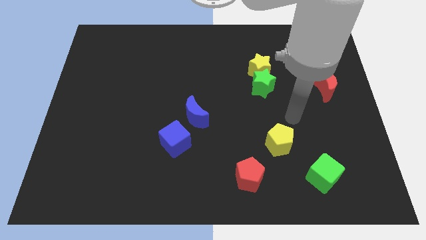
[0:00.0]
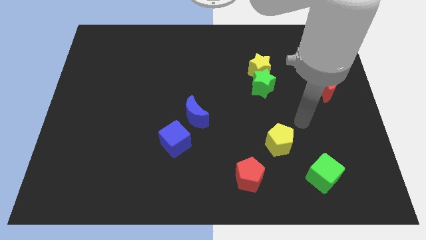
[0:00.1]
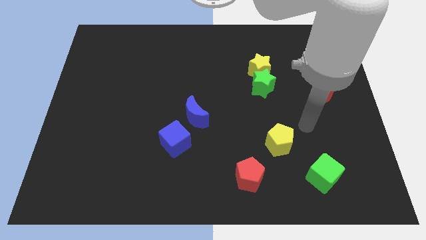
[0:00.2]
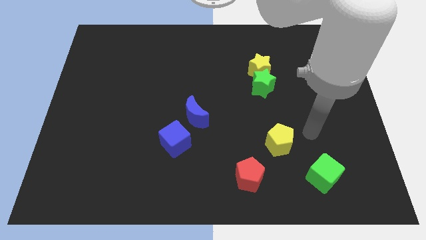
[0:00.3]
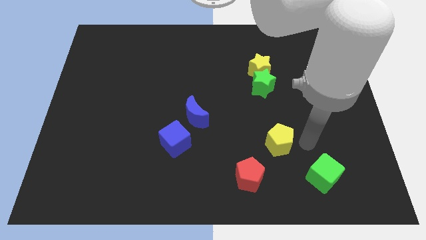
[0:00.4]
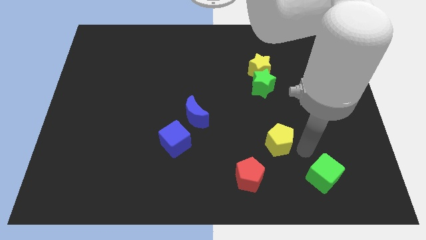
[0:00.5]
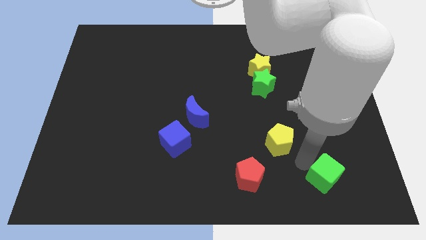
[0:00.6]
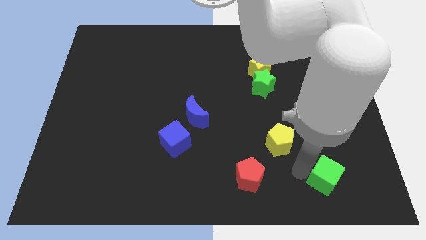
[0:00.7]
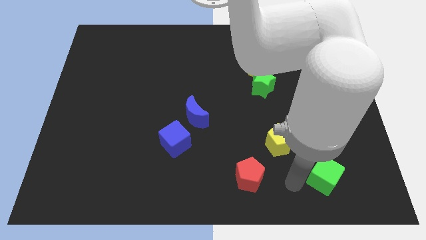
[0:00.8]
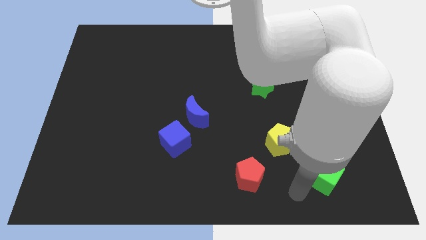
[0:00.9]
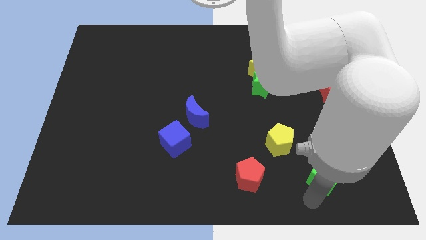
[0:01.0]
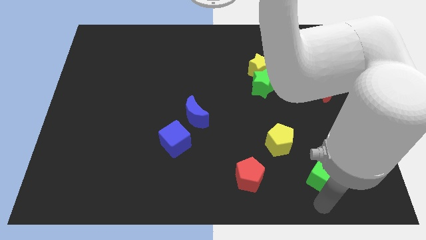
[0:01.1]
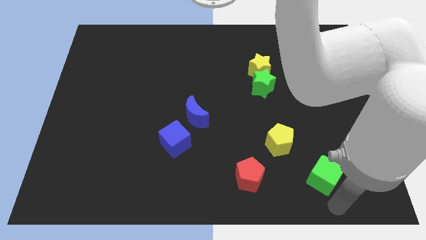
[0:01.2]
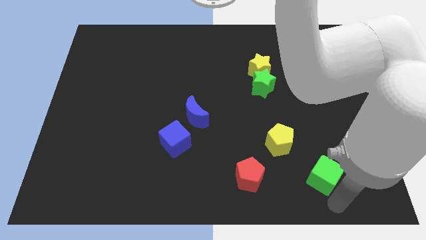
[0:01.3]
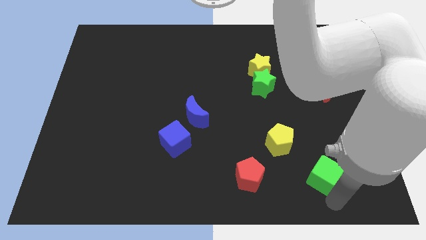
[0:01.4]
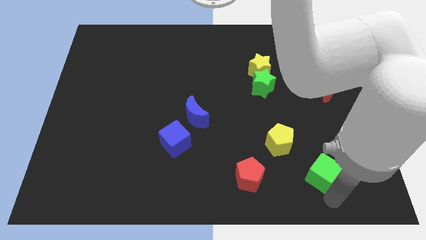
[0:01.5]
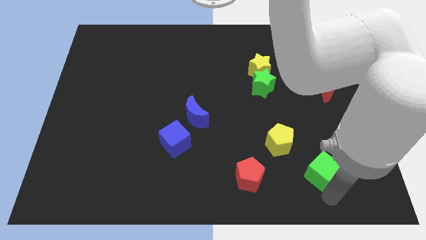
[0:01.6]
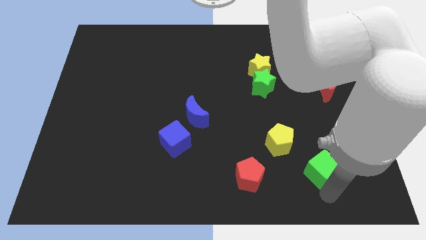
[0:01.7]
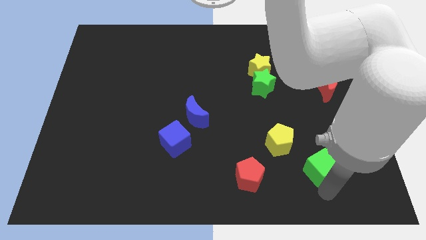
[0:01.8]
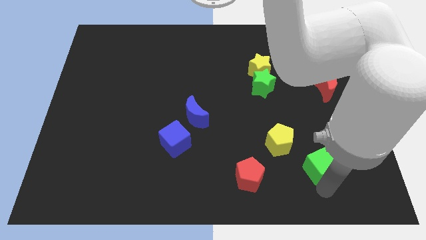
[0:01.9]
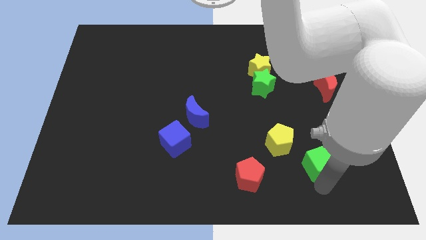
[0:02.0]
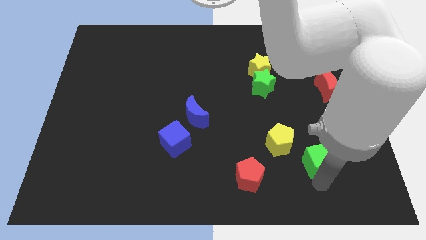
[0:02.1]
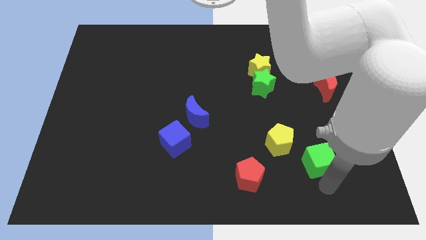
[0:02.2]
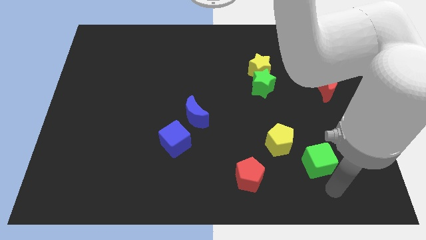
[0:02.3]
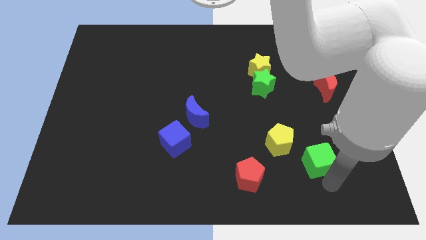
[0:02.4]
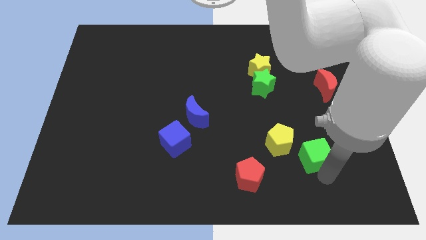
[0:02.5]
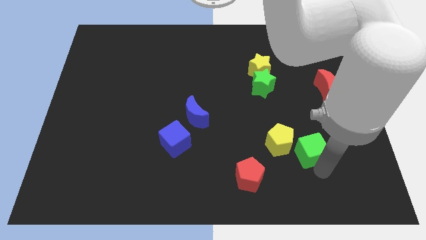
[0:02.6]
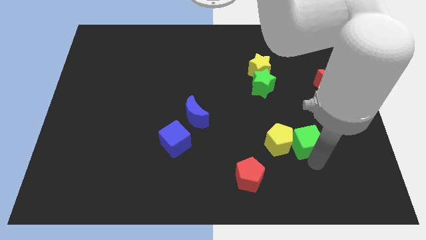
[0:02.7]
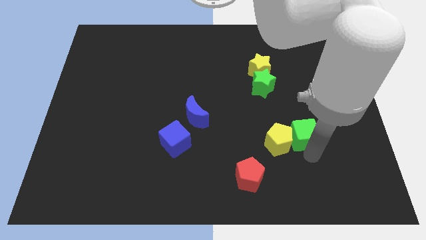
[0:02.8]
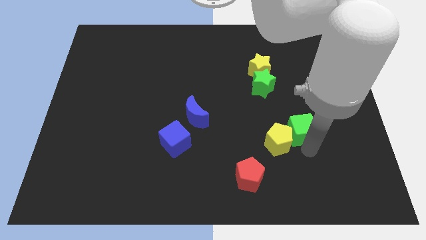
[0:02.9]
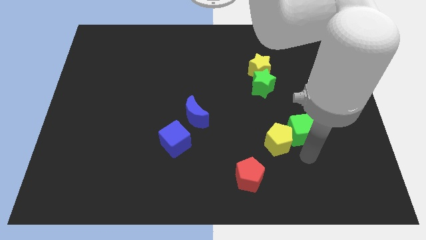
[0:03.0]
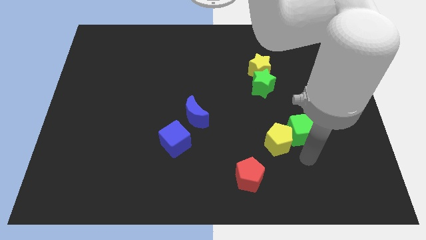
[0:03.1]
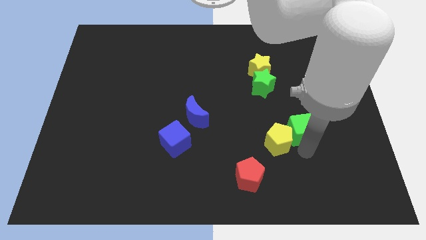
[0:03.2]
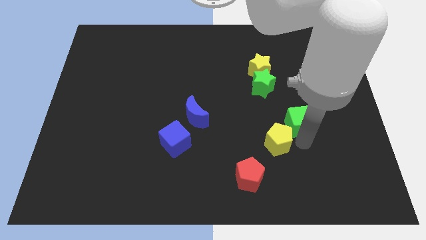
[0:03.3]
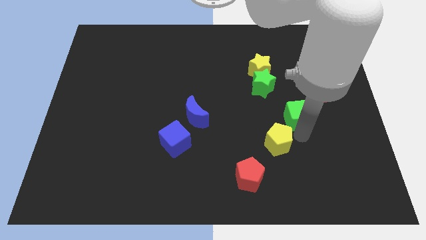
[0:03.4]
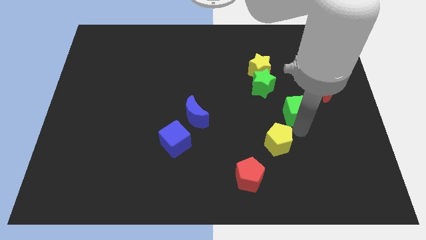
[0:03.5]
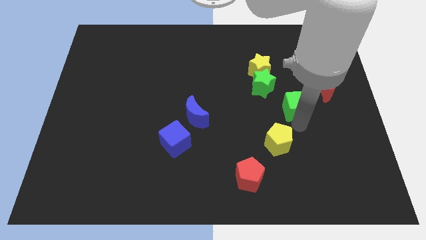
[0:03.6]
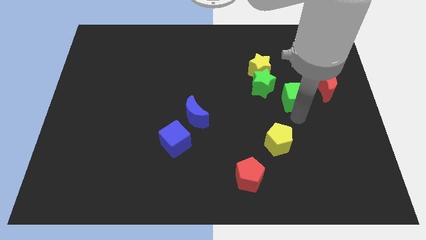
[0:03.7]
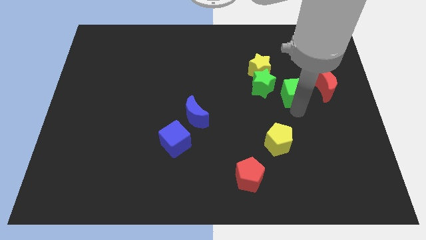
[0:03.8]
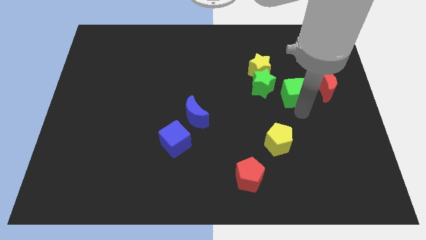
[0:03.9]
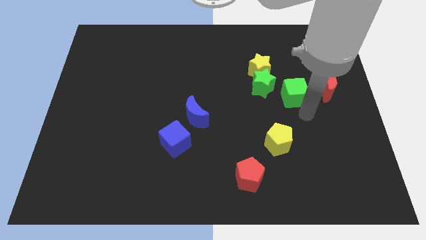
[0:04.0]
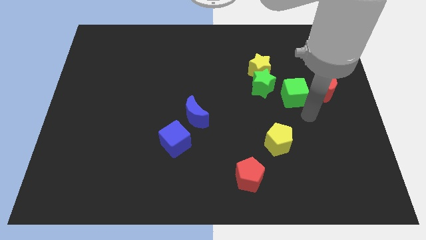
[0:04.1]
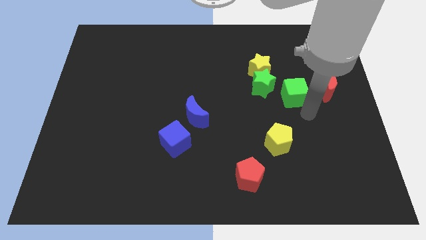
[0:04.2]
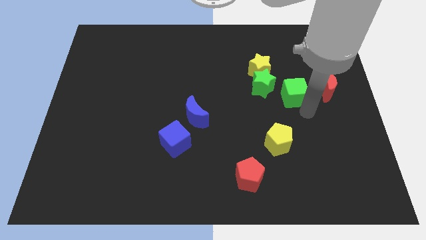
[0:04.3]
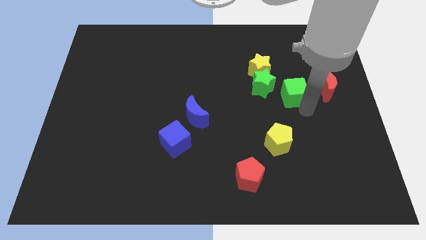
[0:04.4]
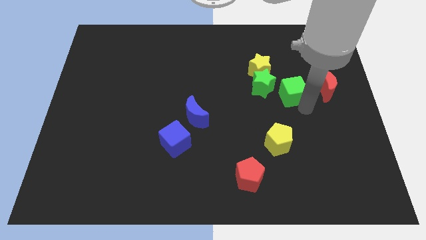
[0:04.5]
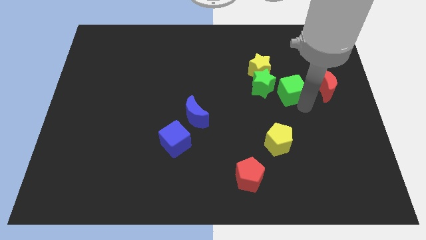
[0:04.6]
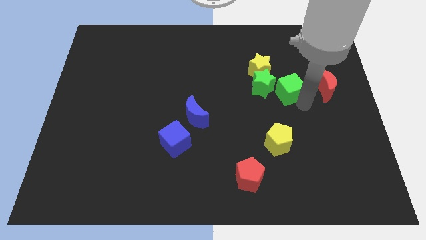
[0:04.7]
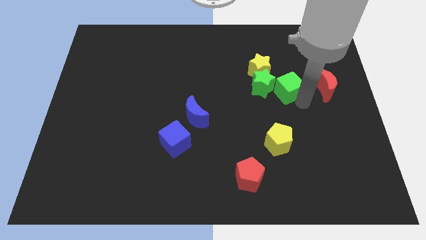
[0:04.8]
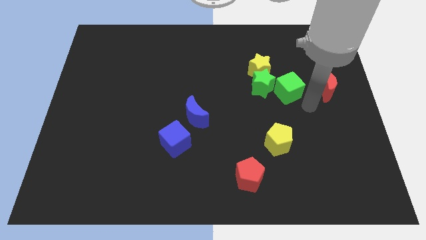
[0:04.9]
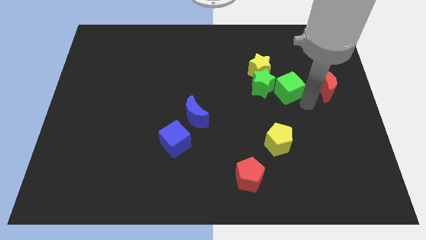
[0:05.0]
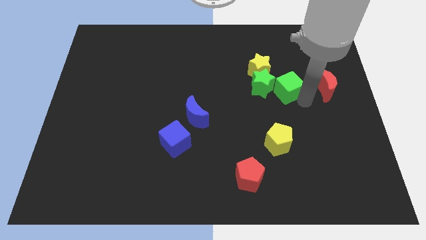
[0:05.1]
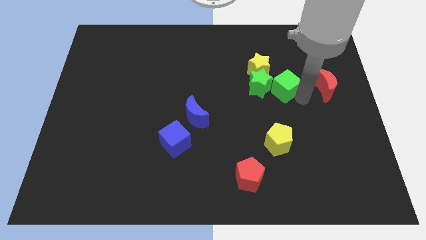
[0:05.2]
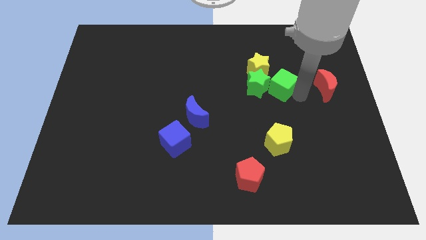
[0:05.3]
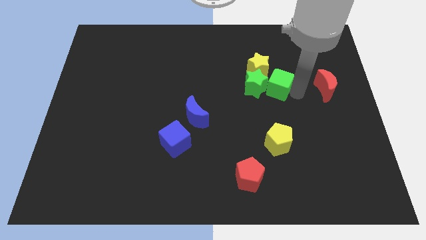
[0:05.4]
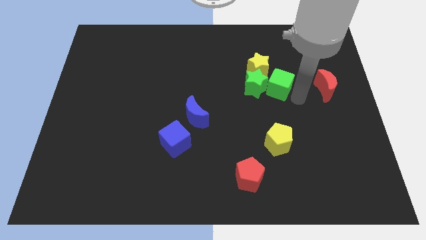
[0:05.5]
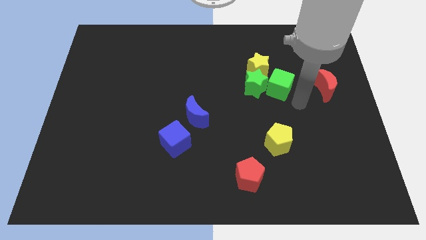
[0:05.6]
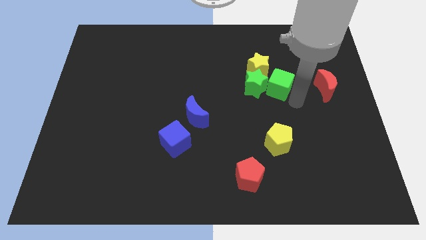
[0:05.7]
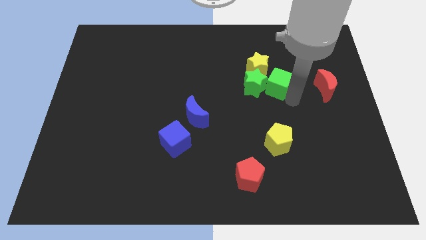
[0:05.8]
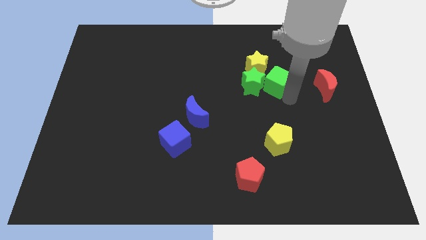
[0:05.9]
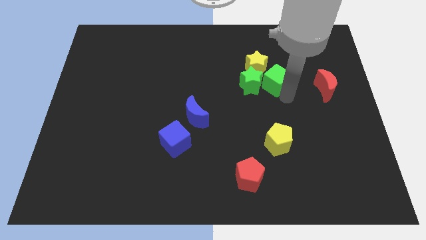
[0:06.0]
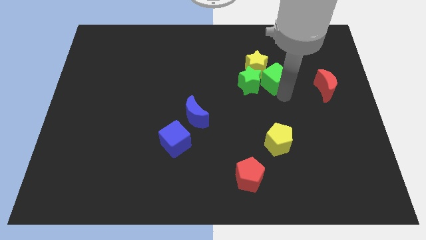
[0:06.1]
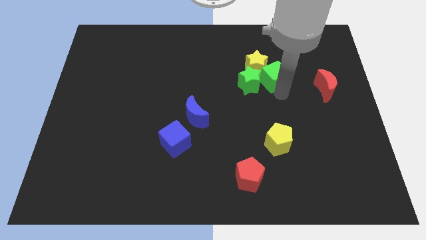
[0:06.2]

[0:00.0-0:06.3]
put the green cube close to the yellow star

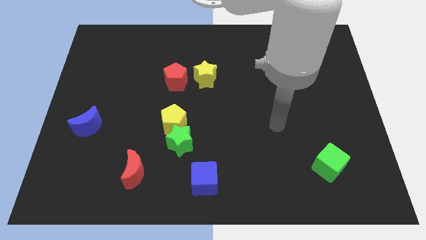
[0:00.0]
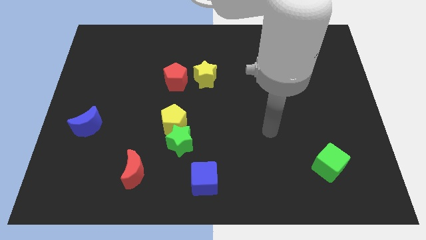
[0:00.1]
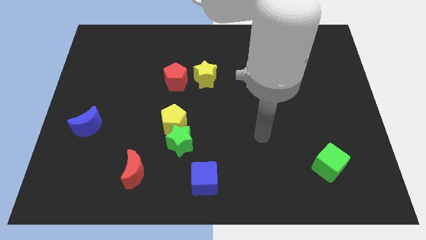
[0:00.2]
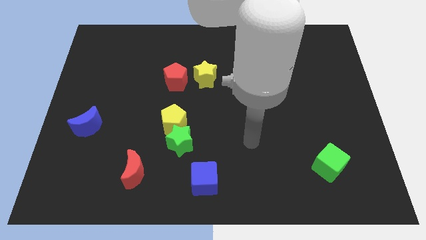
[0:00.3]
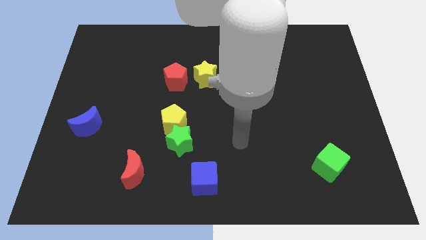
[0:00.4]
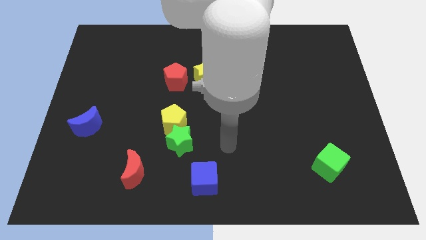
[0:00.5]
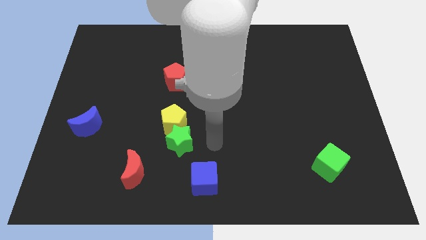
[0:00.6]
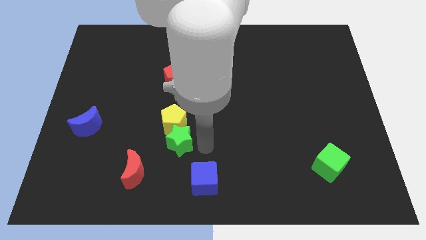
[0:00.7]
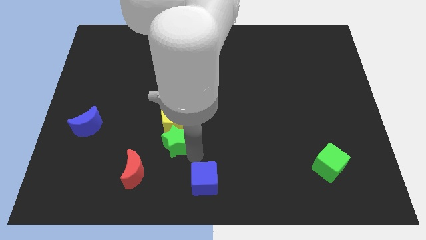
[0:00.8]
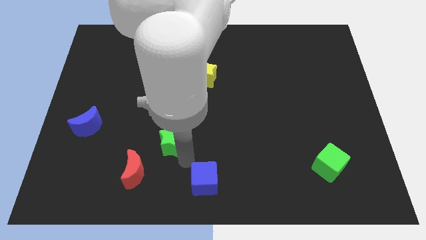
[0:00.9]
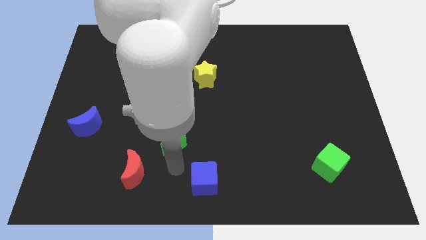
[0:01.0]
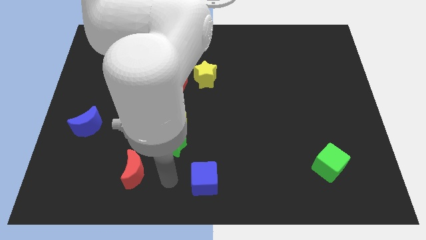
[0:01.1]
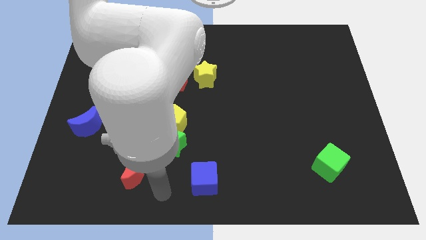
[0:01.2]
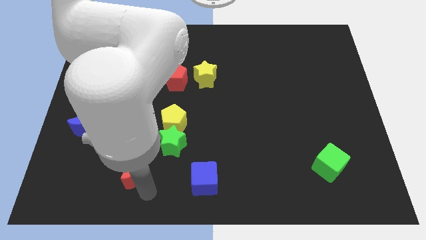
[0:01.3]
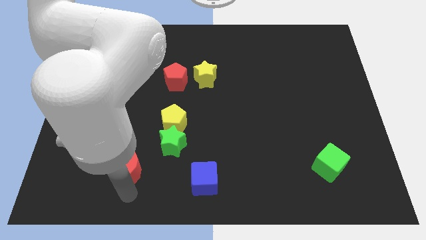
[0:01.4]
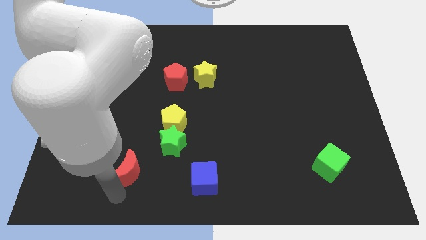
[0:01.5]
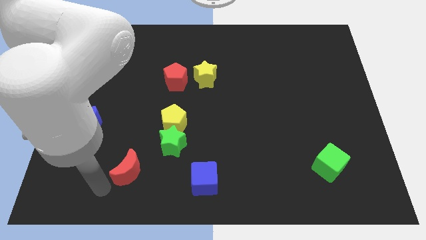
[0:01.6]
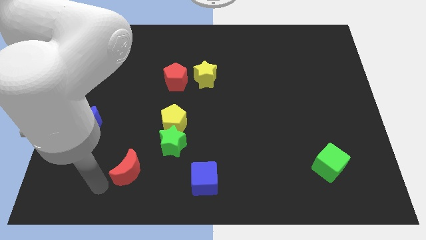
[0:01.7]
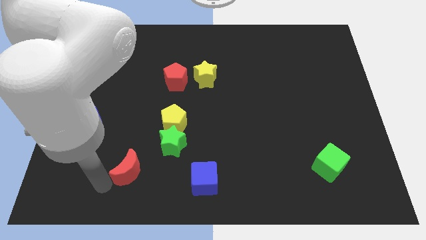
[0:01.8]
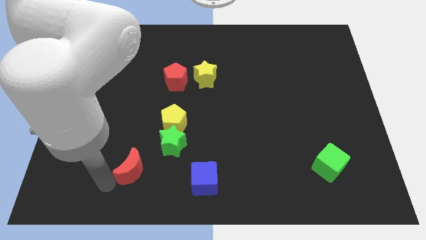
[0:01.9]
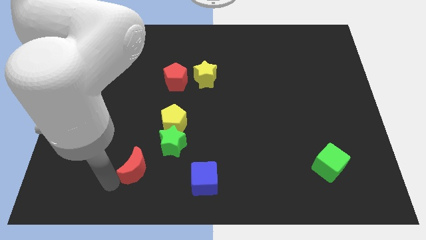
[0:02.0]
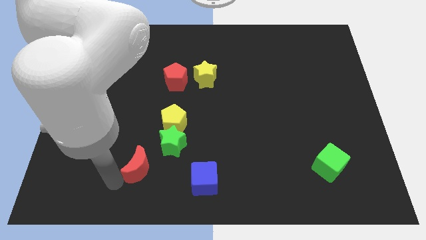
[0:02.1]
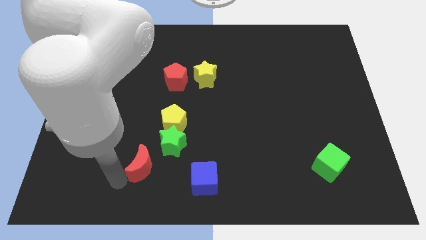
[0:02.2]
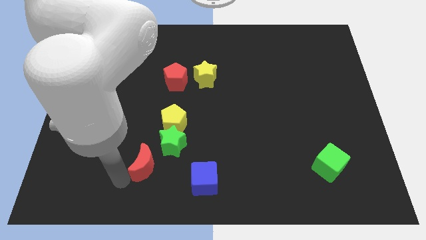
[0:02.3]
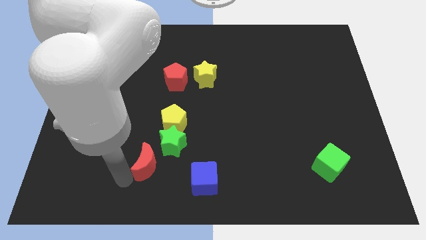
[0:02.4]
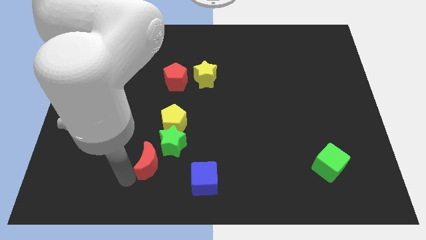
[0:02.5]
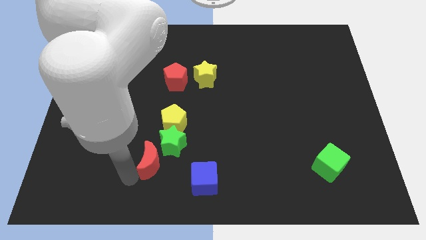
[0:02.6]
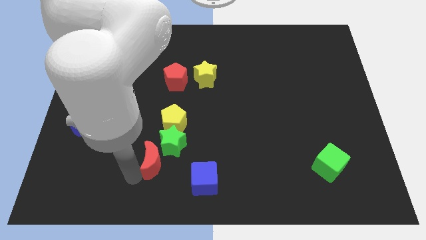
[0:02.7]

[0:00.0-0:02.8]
slide the red moon to the green star
